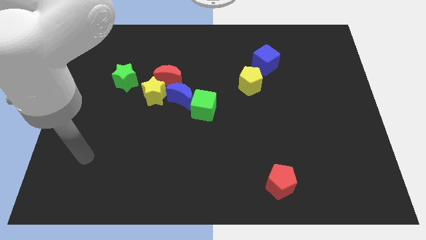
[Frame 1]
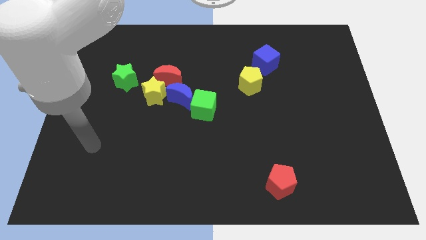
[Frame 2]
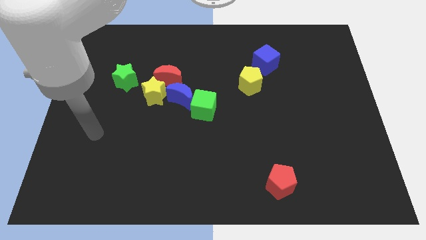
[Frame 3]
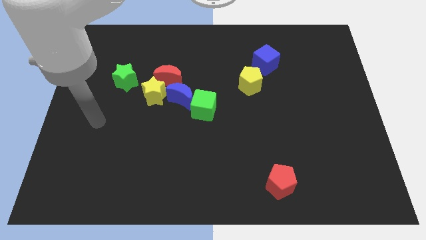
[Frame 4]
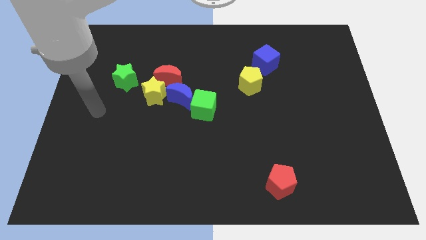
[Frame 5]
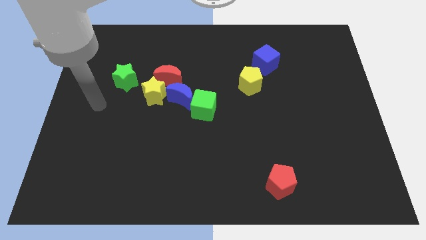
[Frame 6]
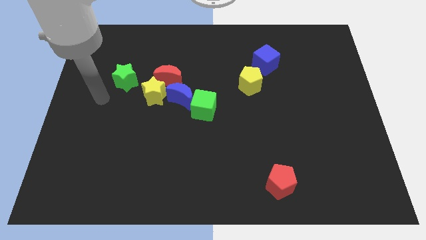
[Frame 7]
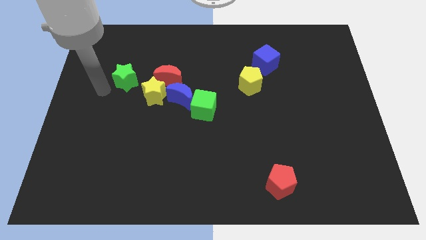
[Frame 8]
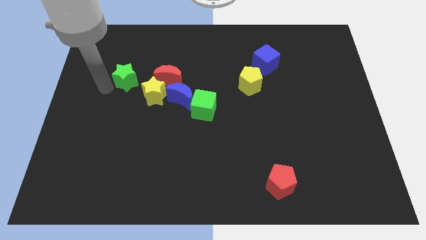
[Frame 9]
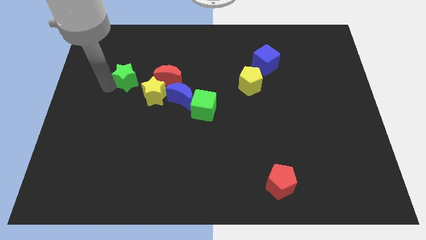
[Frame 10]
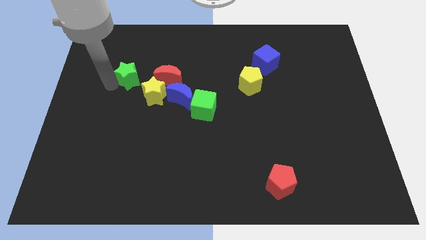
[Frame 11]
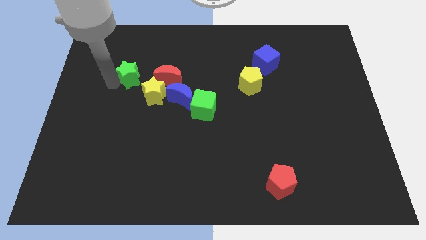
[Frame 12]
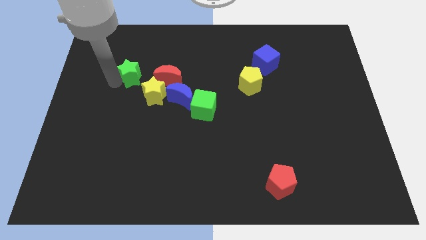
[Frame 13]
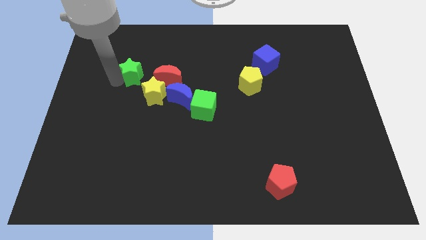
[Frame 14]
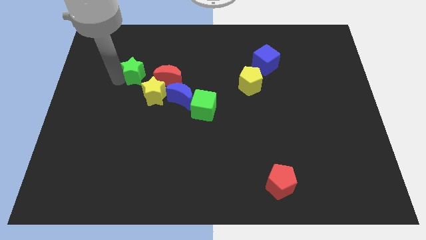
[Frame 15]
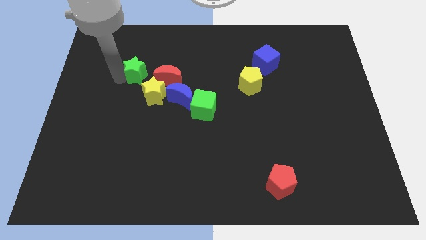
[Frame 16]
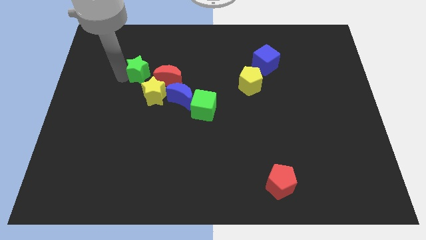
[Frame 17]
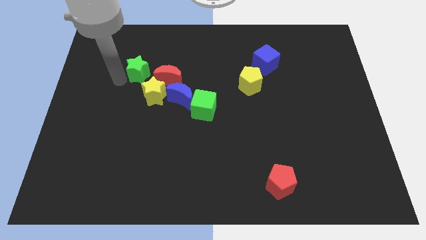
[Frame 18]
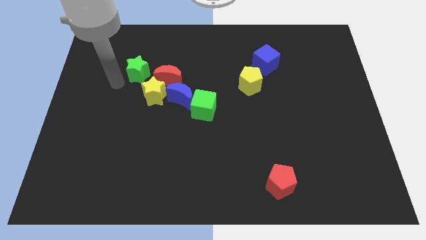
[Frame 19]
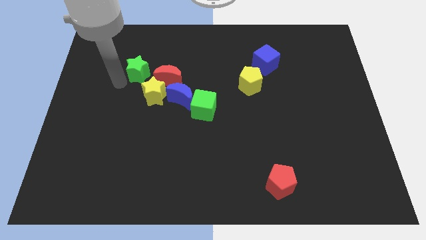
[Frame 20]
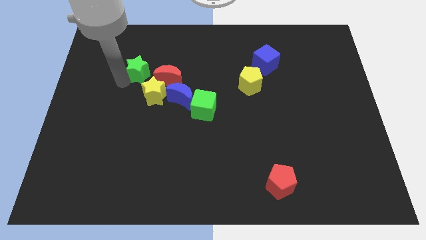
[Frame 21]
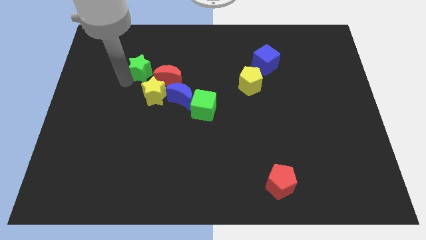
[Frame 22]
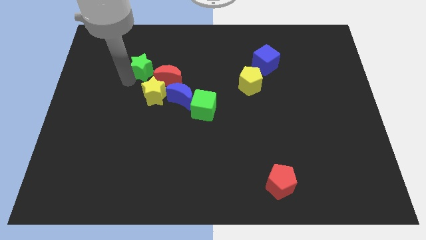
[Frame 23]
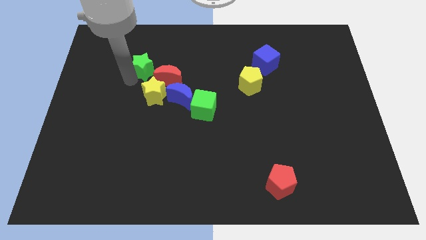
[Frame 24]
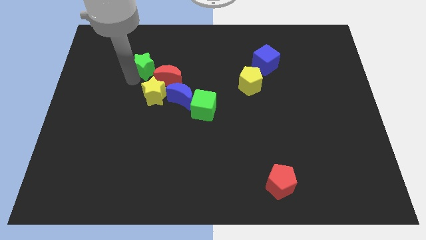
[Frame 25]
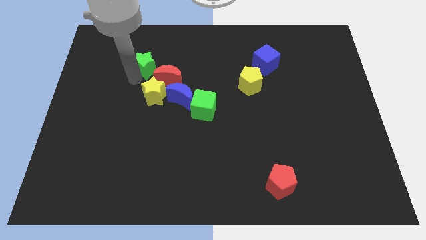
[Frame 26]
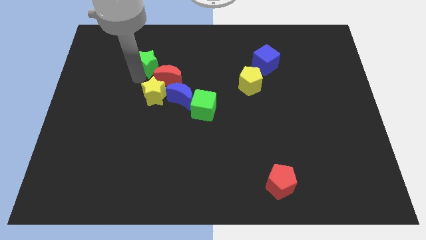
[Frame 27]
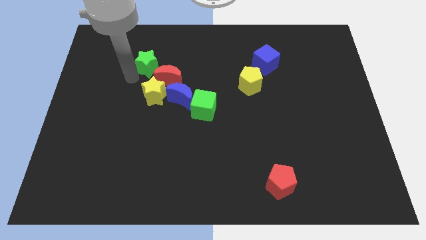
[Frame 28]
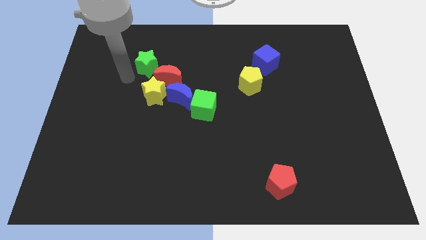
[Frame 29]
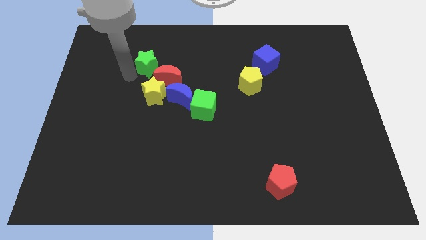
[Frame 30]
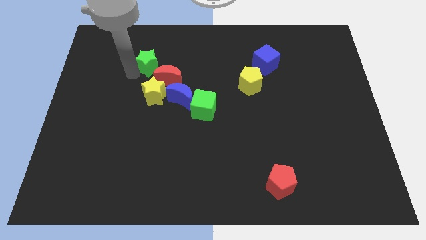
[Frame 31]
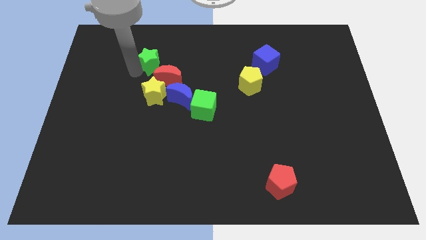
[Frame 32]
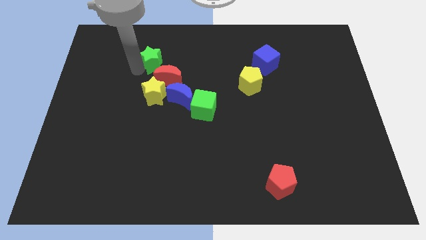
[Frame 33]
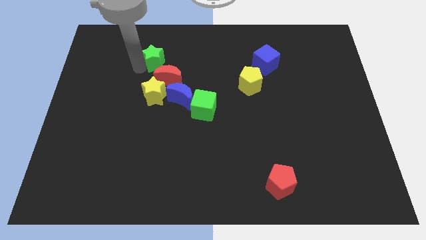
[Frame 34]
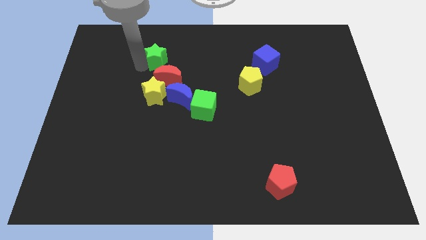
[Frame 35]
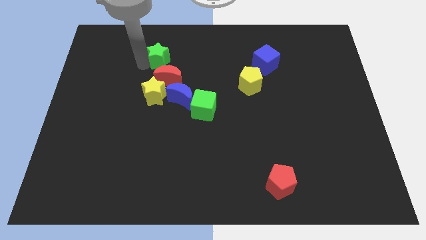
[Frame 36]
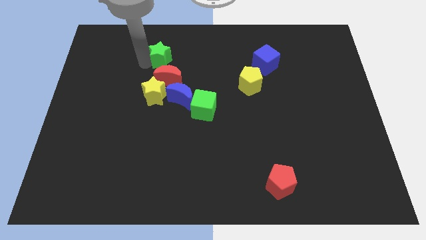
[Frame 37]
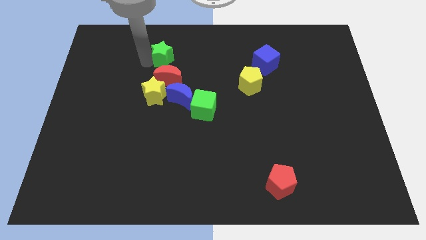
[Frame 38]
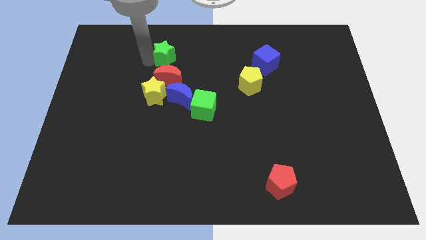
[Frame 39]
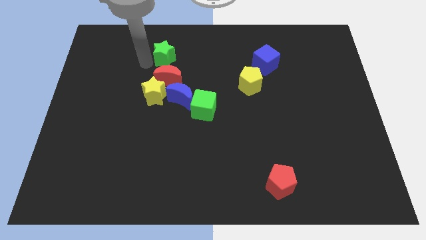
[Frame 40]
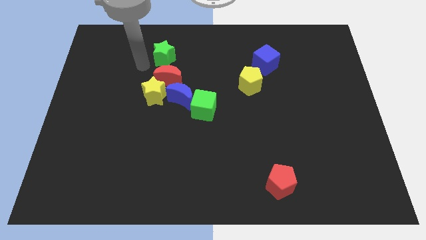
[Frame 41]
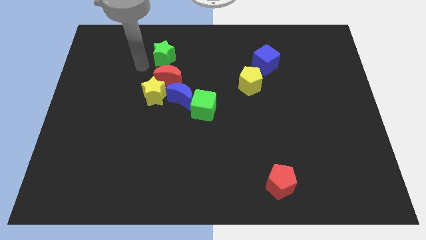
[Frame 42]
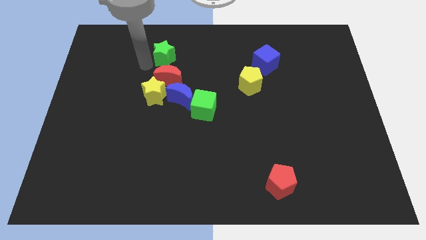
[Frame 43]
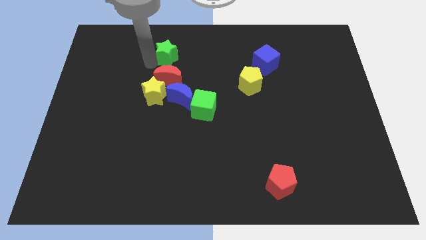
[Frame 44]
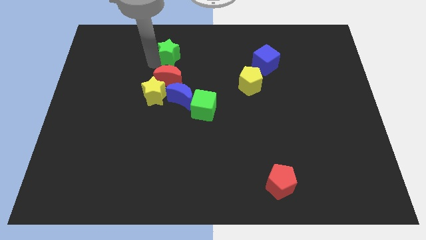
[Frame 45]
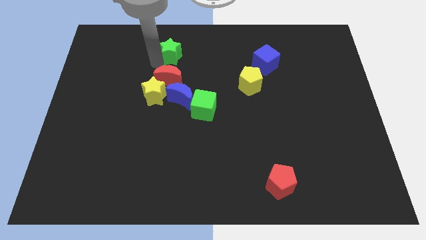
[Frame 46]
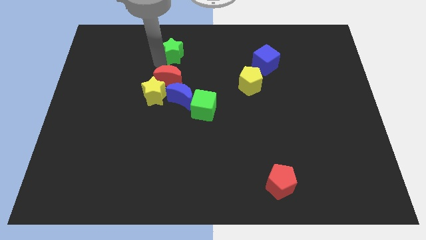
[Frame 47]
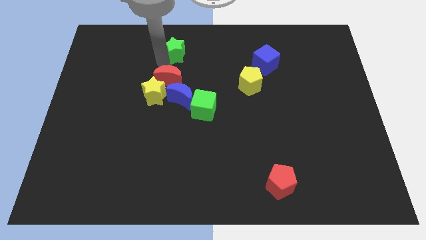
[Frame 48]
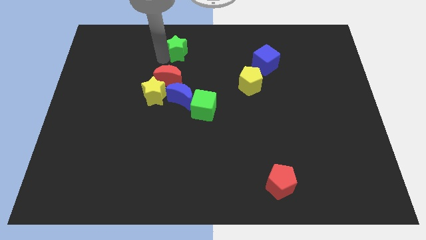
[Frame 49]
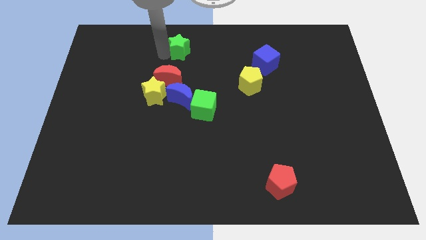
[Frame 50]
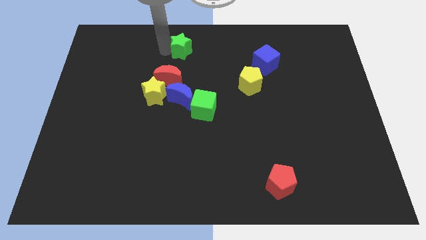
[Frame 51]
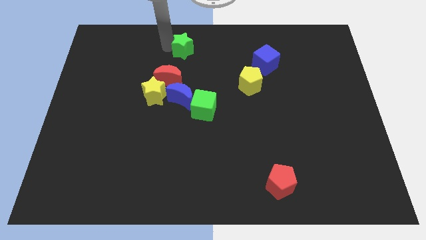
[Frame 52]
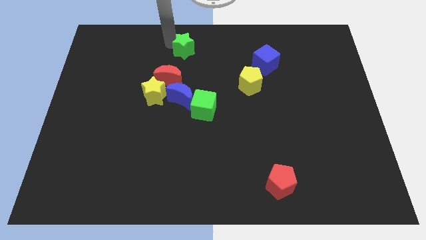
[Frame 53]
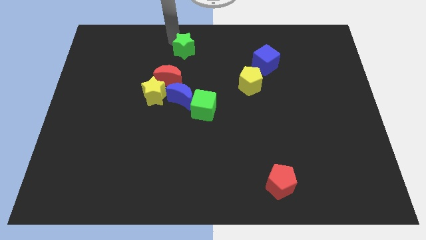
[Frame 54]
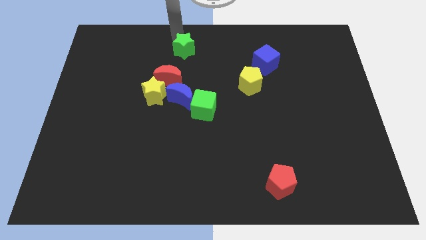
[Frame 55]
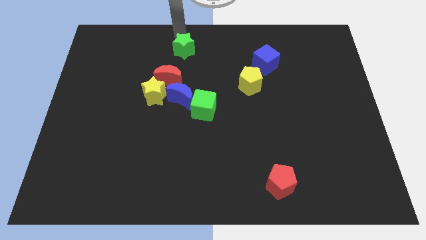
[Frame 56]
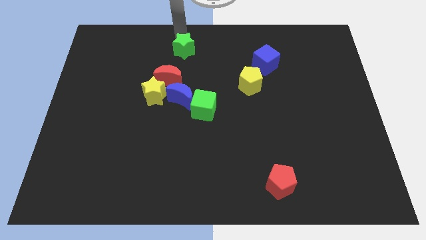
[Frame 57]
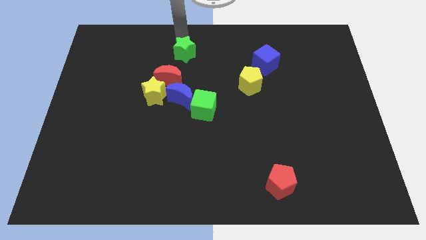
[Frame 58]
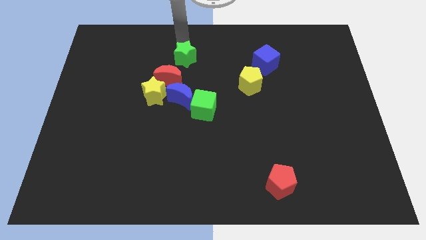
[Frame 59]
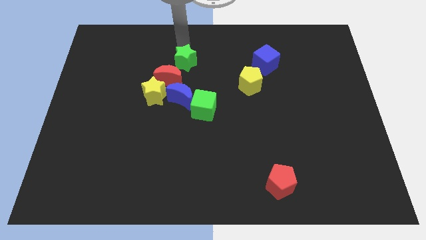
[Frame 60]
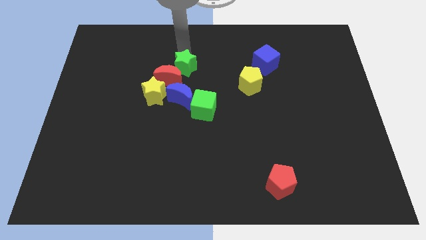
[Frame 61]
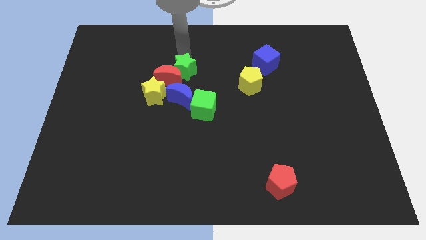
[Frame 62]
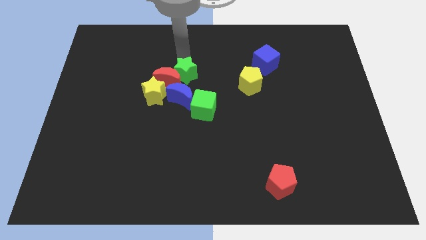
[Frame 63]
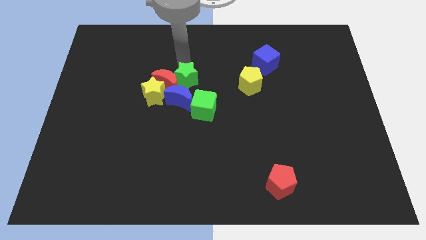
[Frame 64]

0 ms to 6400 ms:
push the green star to the right of the yellow star

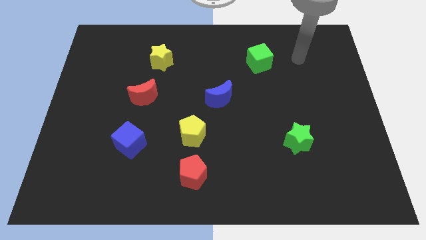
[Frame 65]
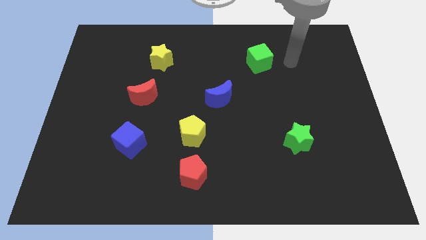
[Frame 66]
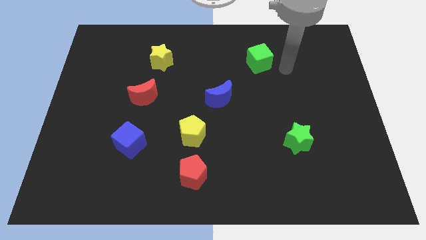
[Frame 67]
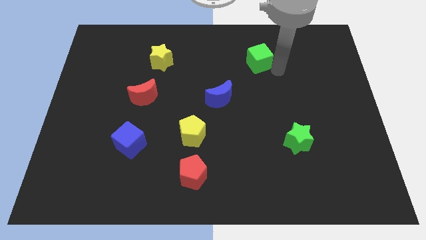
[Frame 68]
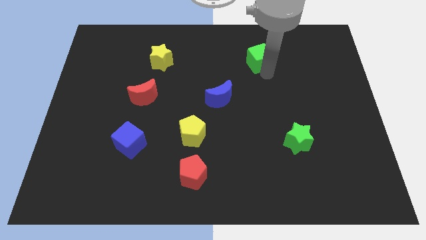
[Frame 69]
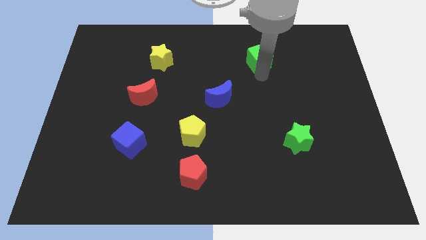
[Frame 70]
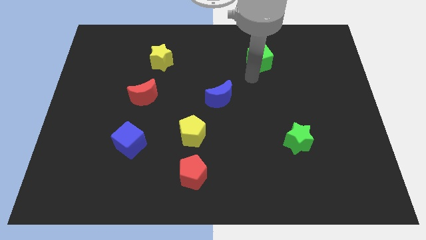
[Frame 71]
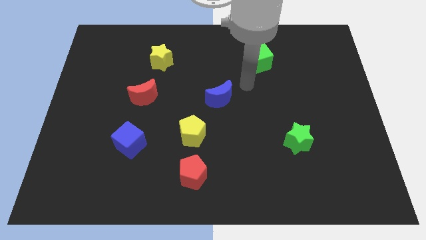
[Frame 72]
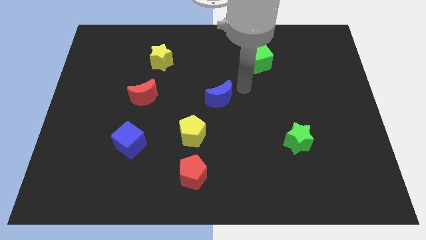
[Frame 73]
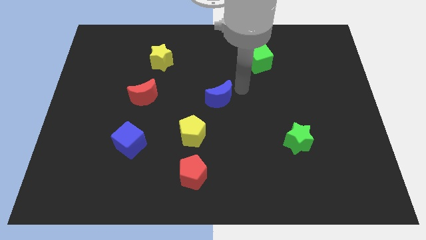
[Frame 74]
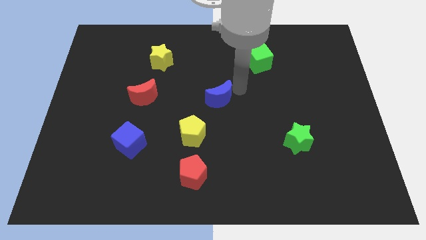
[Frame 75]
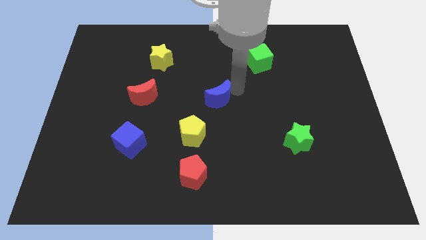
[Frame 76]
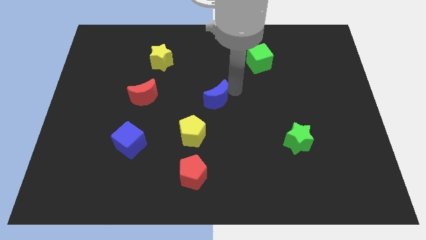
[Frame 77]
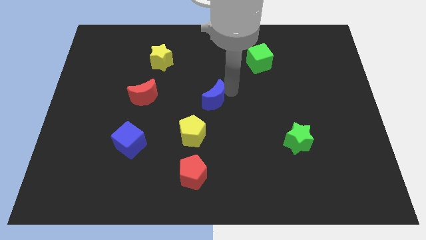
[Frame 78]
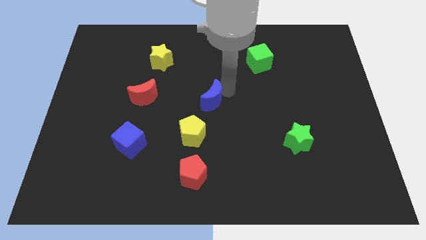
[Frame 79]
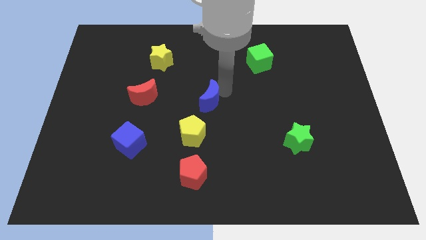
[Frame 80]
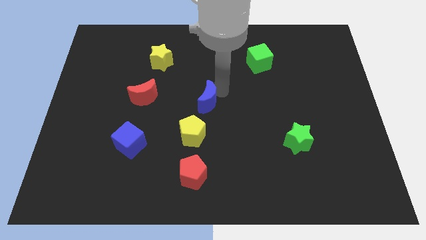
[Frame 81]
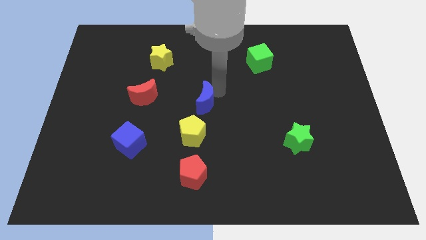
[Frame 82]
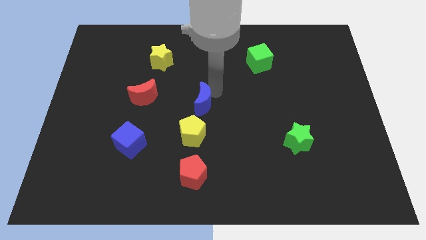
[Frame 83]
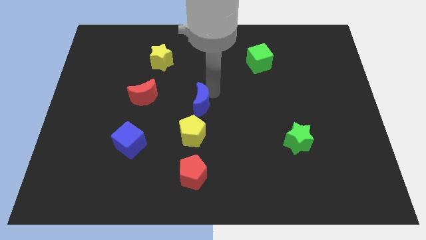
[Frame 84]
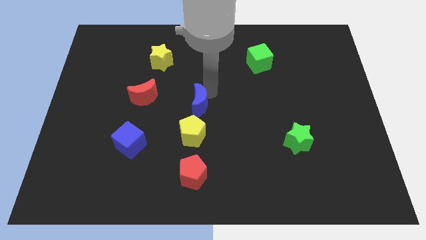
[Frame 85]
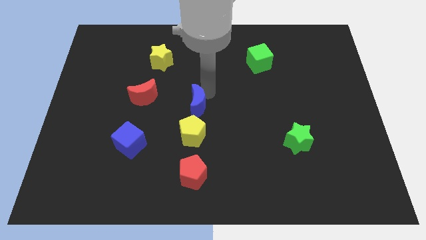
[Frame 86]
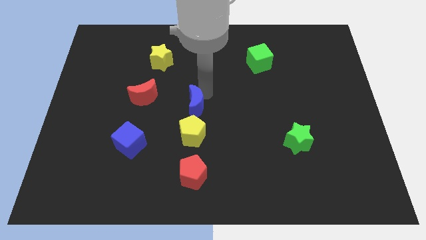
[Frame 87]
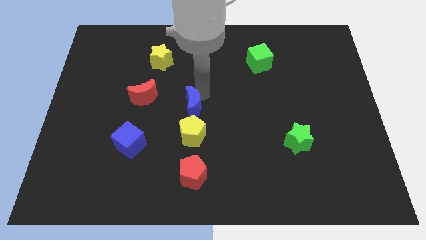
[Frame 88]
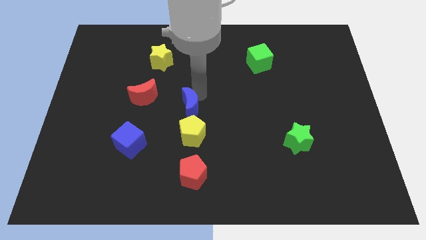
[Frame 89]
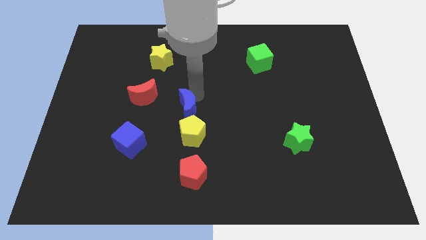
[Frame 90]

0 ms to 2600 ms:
put the blue moon to the top left side of the yellow pentagon
